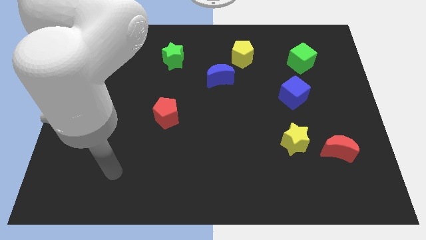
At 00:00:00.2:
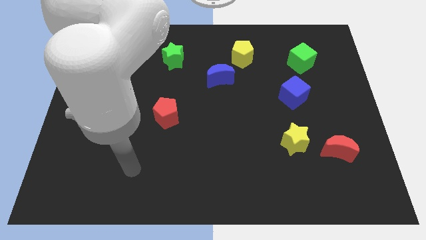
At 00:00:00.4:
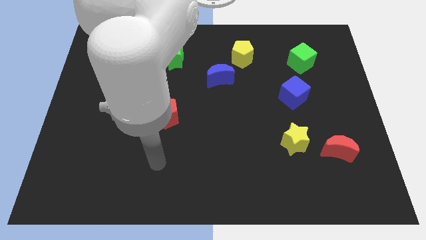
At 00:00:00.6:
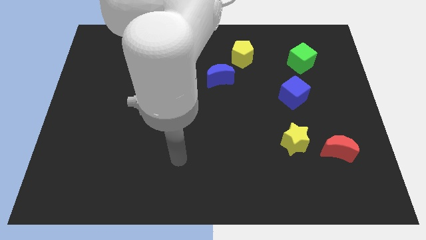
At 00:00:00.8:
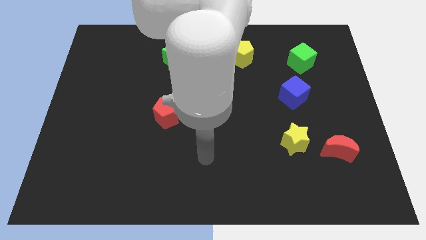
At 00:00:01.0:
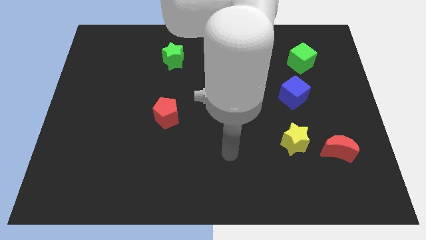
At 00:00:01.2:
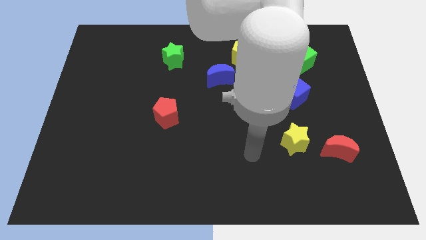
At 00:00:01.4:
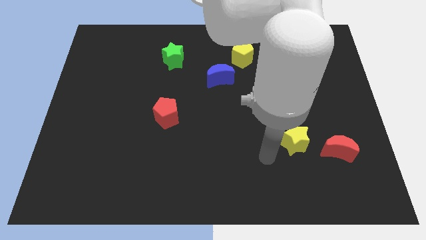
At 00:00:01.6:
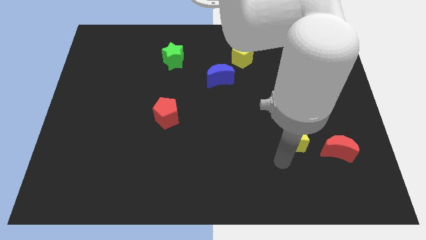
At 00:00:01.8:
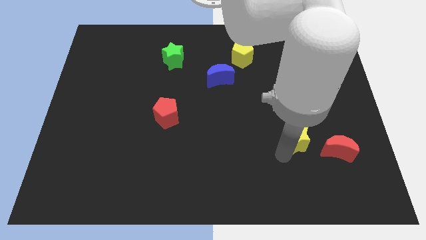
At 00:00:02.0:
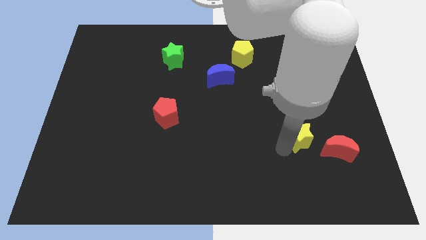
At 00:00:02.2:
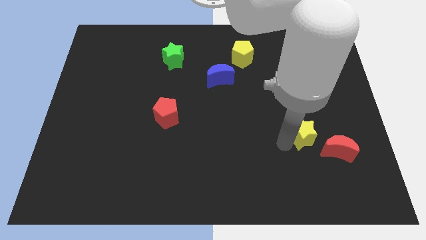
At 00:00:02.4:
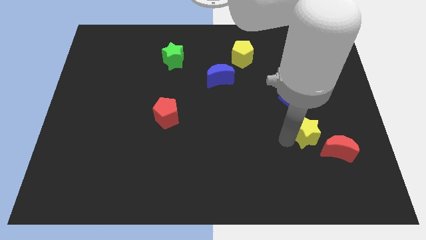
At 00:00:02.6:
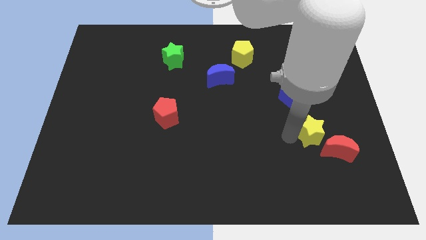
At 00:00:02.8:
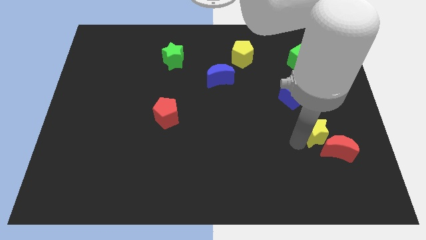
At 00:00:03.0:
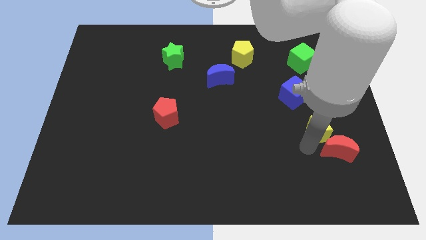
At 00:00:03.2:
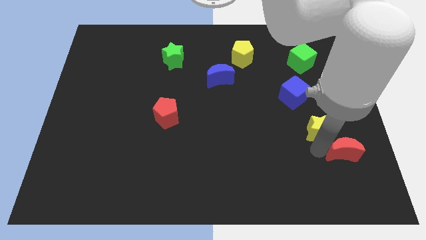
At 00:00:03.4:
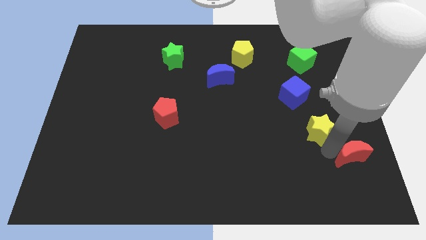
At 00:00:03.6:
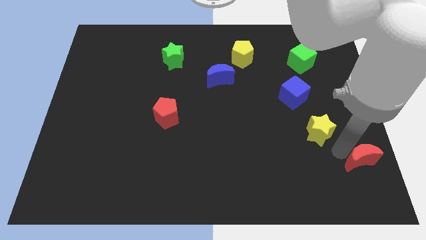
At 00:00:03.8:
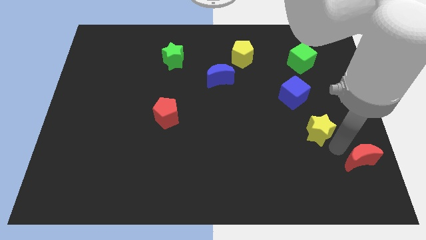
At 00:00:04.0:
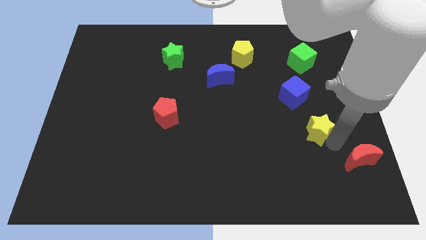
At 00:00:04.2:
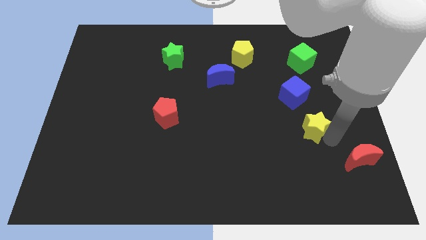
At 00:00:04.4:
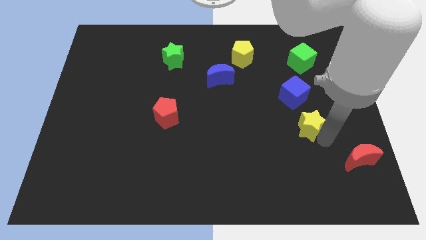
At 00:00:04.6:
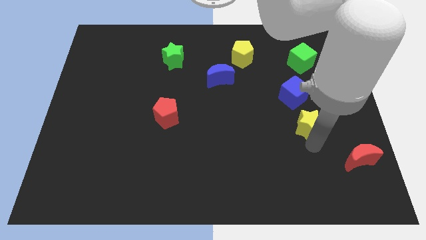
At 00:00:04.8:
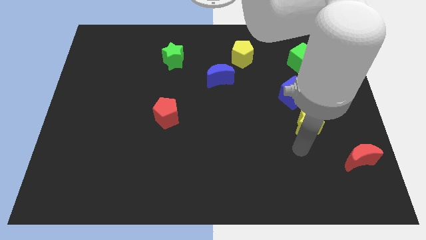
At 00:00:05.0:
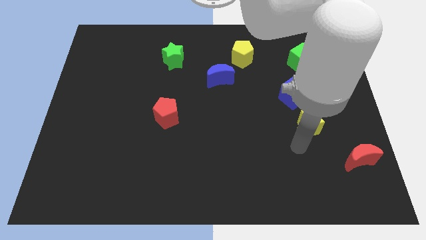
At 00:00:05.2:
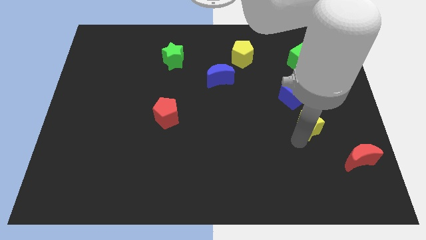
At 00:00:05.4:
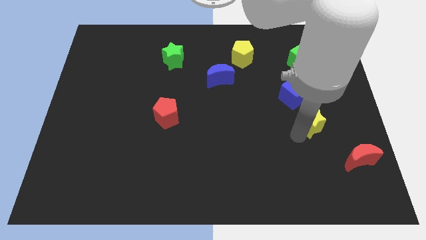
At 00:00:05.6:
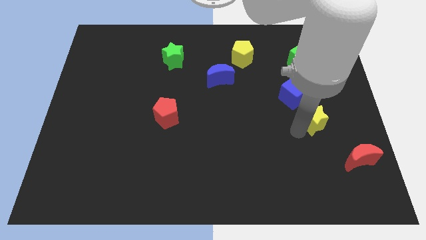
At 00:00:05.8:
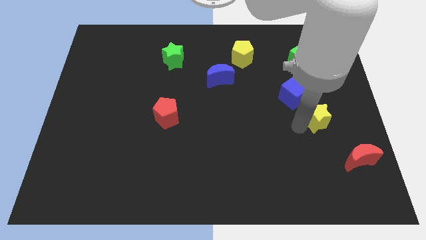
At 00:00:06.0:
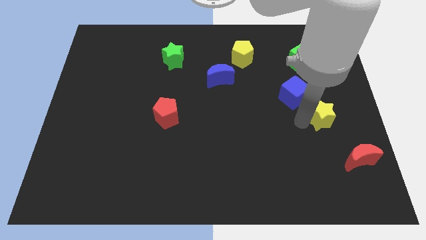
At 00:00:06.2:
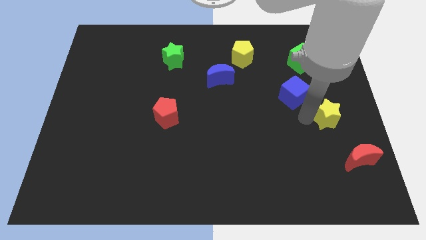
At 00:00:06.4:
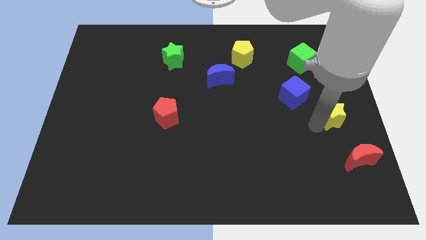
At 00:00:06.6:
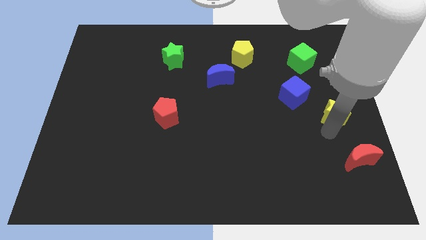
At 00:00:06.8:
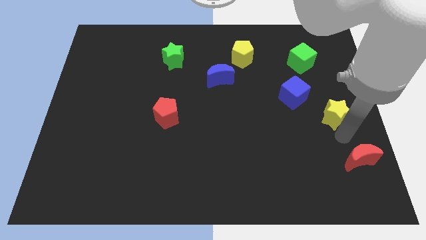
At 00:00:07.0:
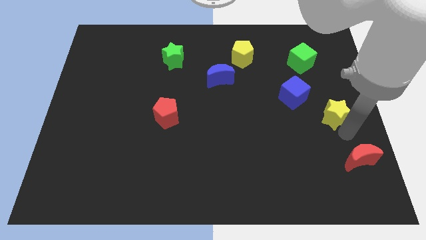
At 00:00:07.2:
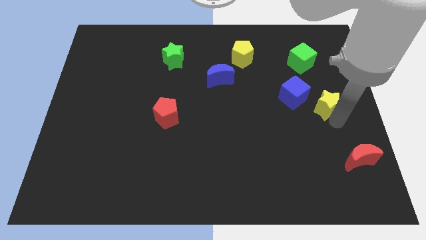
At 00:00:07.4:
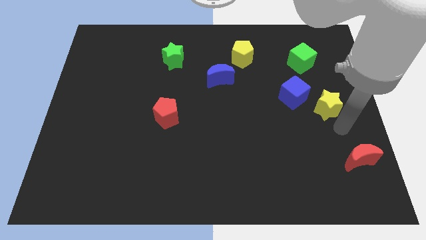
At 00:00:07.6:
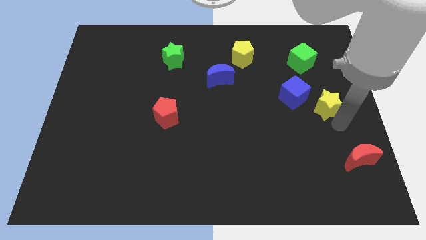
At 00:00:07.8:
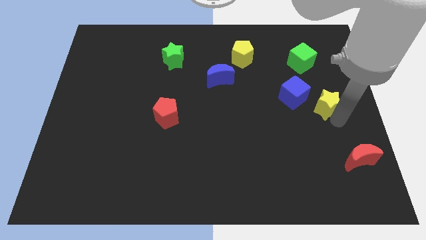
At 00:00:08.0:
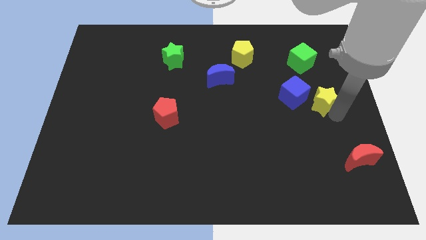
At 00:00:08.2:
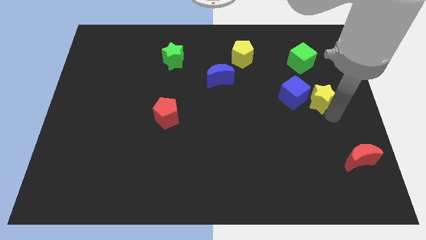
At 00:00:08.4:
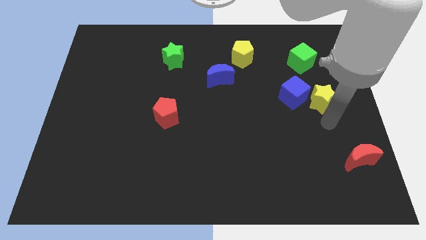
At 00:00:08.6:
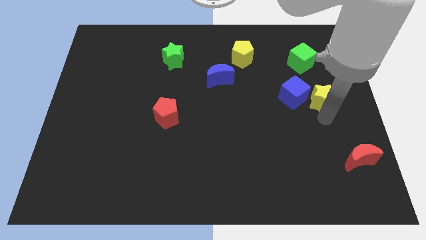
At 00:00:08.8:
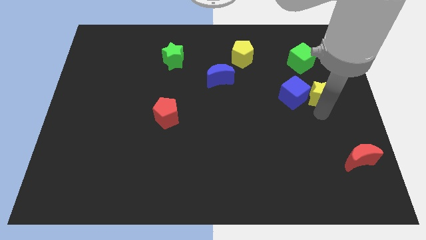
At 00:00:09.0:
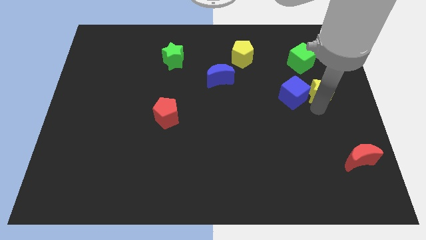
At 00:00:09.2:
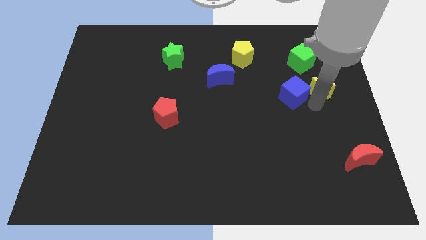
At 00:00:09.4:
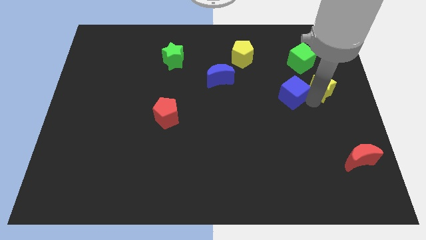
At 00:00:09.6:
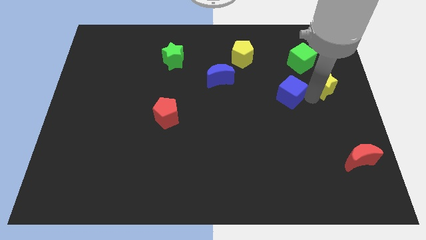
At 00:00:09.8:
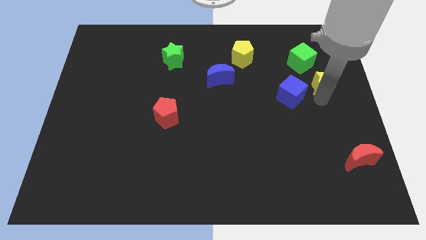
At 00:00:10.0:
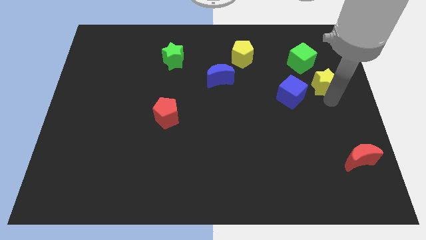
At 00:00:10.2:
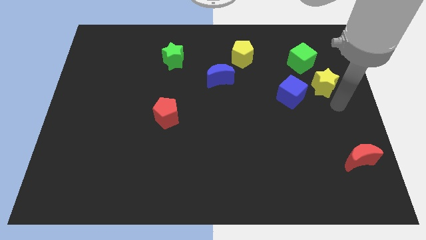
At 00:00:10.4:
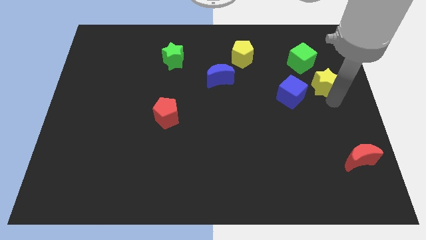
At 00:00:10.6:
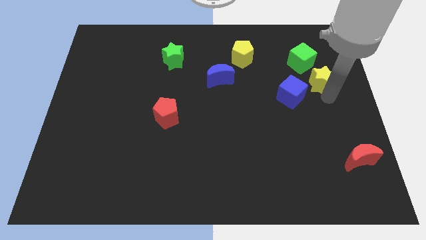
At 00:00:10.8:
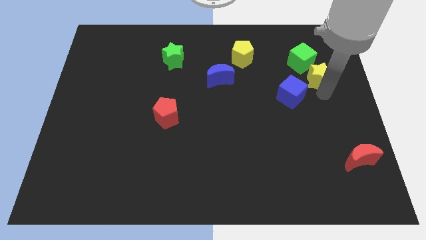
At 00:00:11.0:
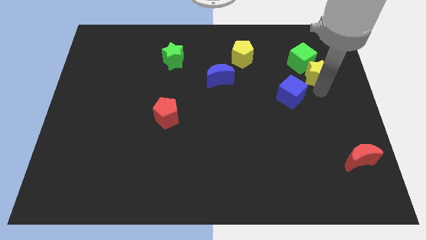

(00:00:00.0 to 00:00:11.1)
put the yellow star to the green cube

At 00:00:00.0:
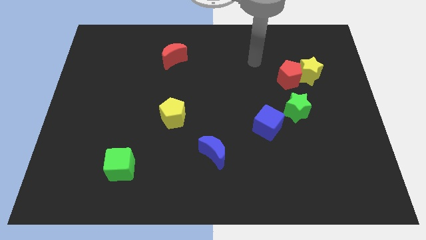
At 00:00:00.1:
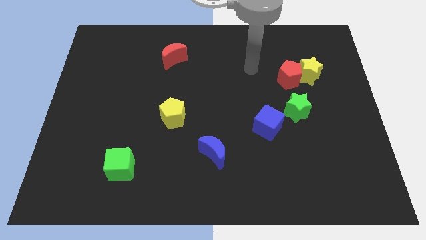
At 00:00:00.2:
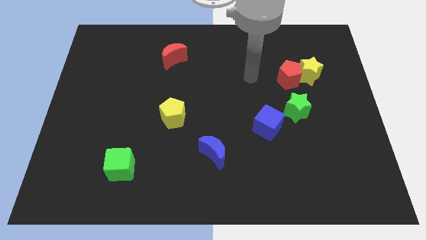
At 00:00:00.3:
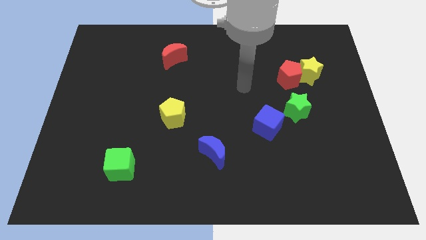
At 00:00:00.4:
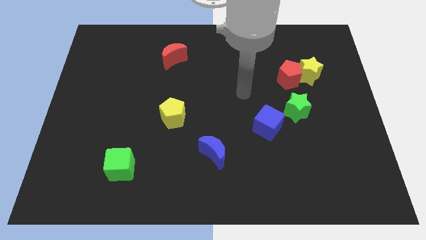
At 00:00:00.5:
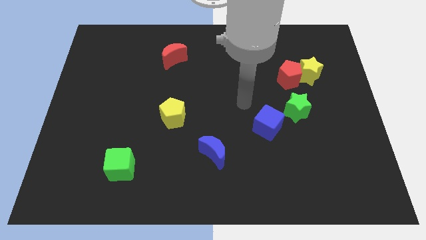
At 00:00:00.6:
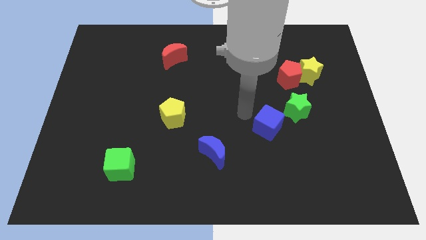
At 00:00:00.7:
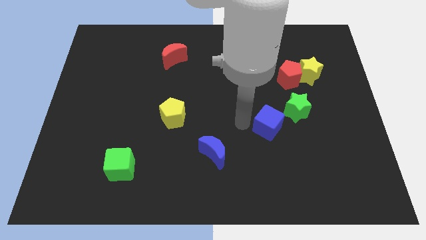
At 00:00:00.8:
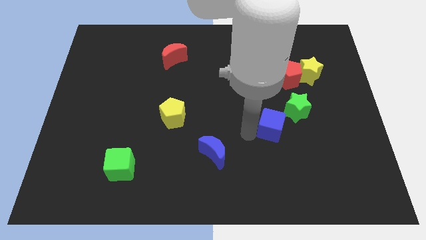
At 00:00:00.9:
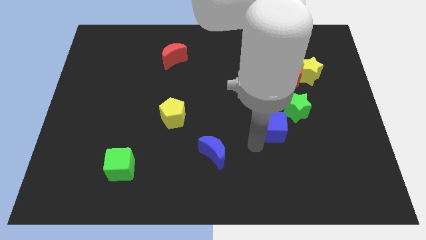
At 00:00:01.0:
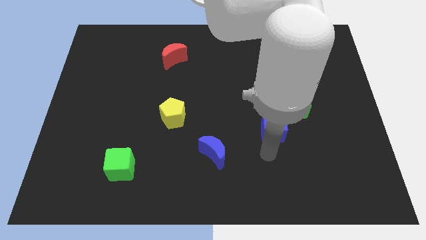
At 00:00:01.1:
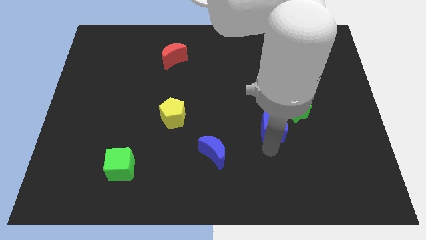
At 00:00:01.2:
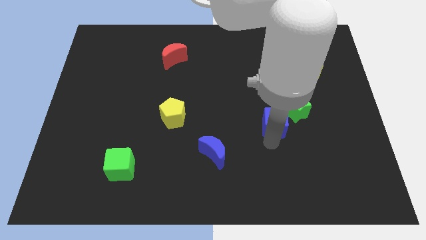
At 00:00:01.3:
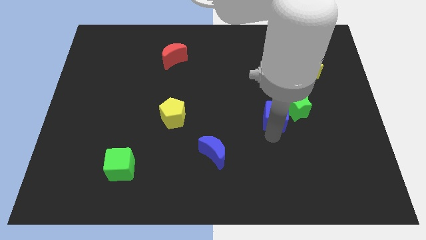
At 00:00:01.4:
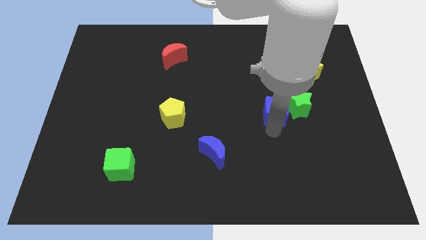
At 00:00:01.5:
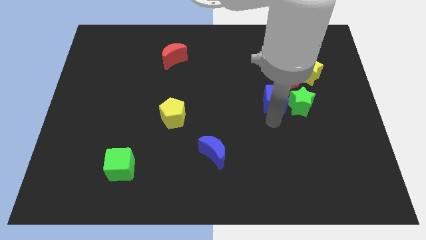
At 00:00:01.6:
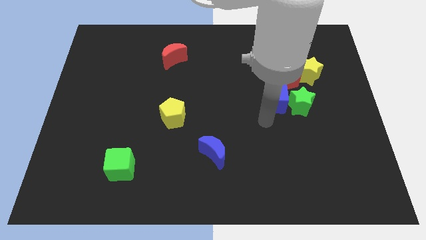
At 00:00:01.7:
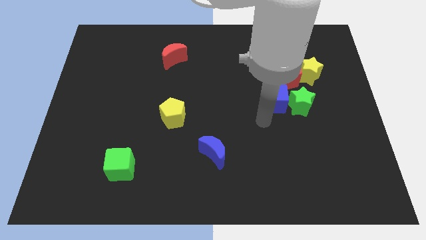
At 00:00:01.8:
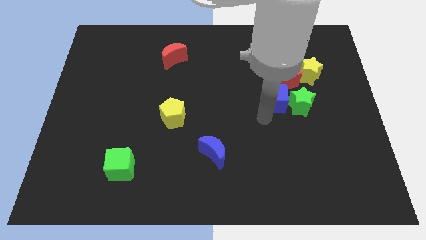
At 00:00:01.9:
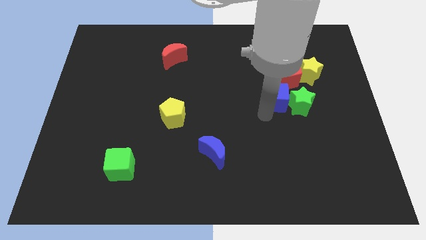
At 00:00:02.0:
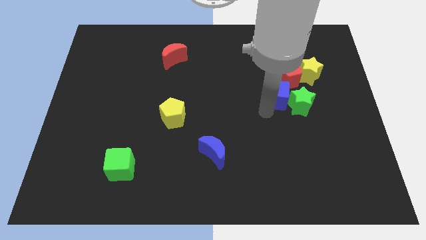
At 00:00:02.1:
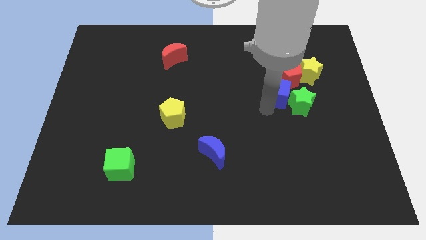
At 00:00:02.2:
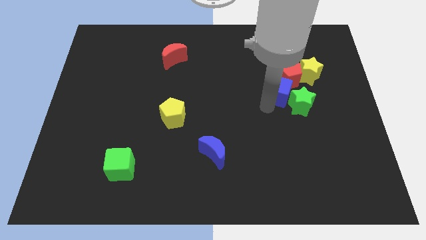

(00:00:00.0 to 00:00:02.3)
push the blue cube close to the red pentagon
